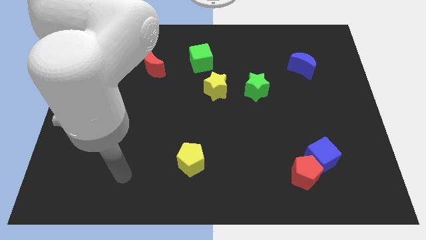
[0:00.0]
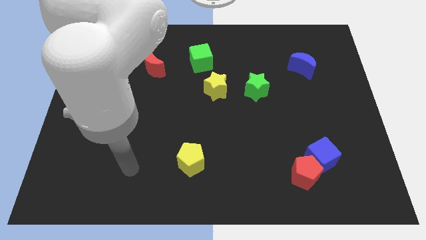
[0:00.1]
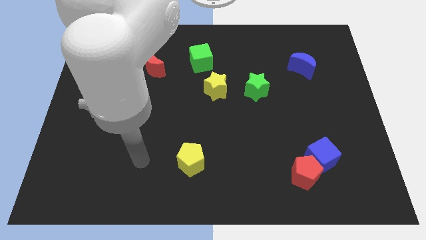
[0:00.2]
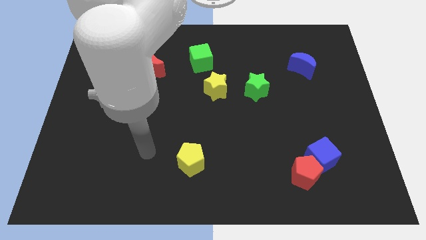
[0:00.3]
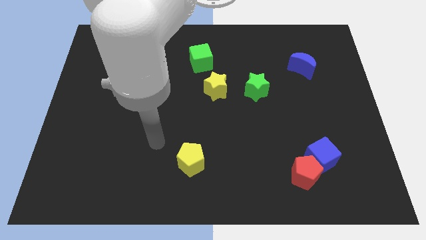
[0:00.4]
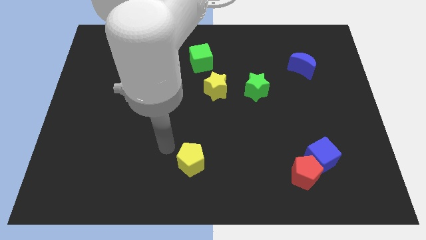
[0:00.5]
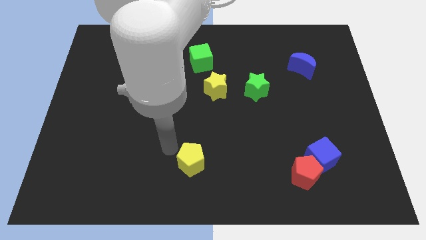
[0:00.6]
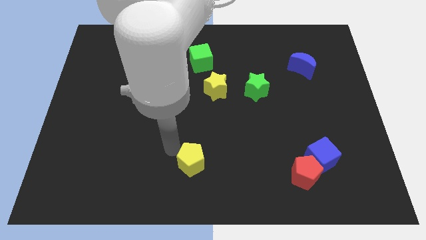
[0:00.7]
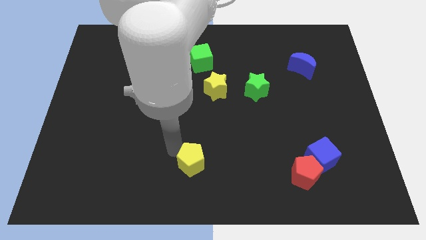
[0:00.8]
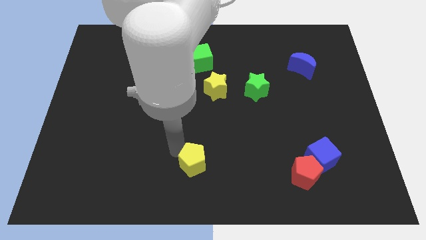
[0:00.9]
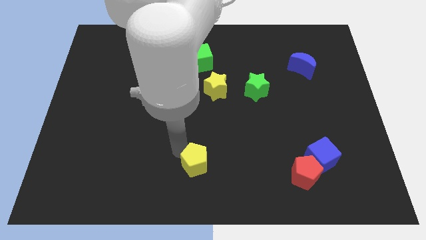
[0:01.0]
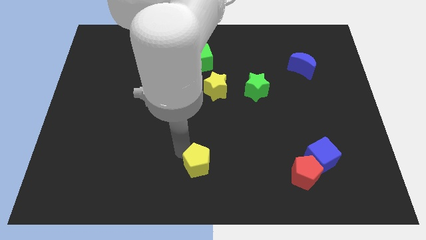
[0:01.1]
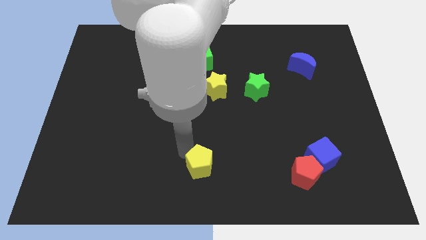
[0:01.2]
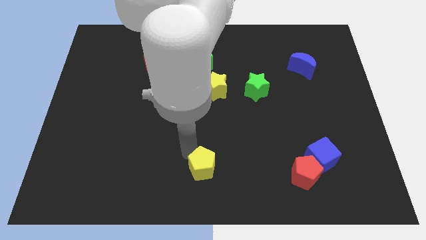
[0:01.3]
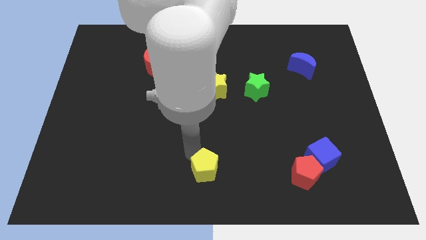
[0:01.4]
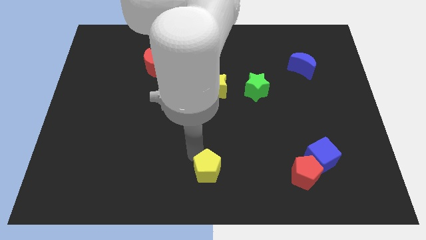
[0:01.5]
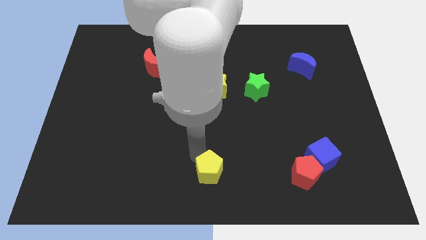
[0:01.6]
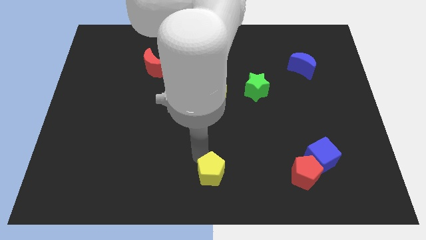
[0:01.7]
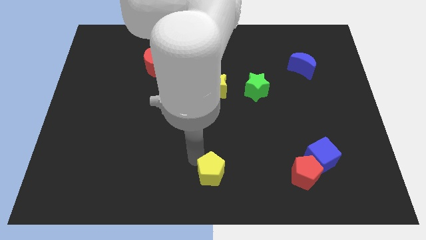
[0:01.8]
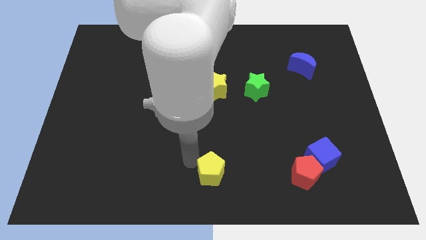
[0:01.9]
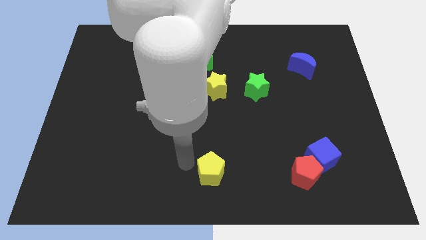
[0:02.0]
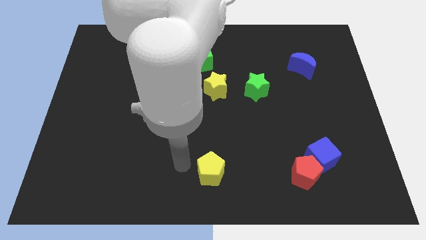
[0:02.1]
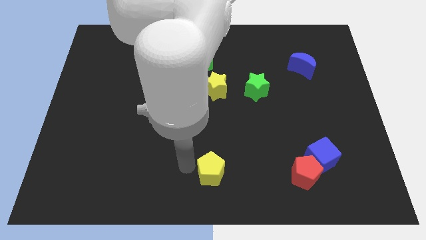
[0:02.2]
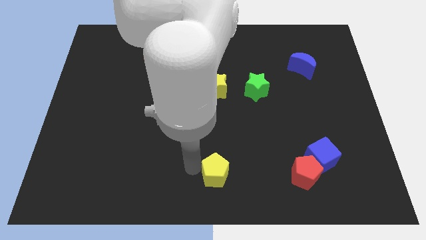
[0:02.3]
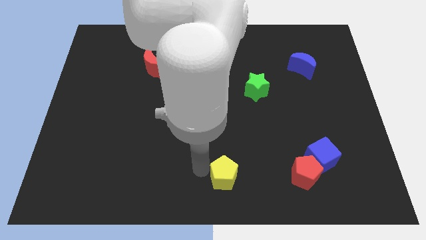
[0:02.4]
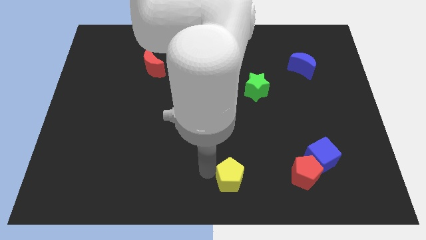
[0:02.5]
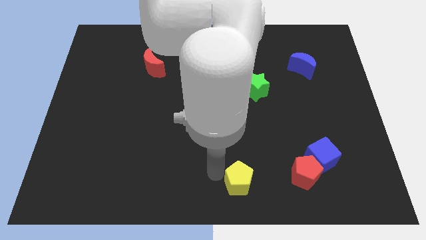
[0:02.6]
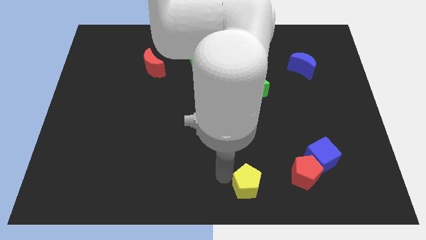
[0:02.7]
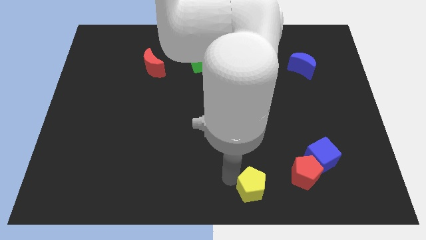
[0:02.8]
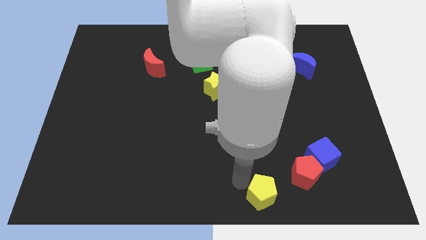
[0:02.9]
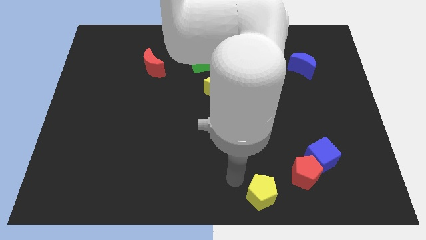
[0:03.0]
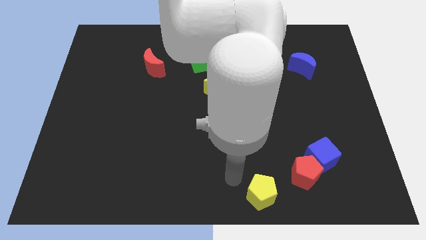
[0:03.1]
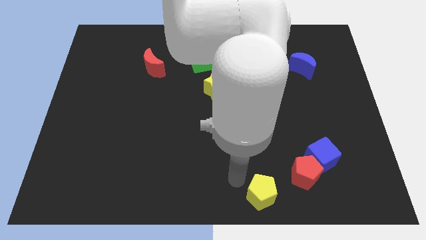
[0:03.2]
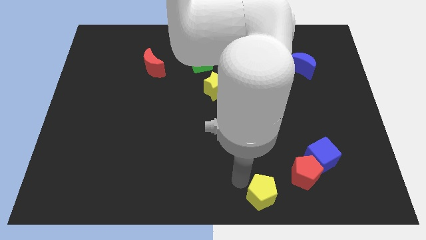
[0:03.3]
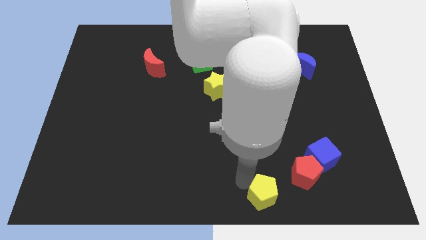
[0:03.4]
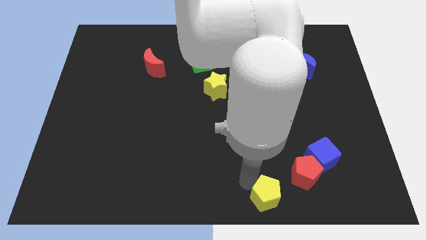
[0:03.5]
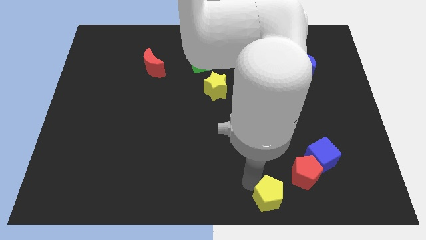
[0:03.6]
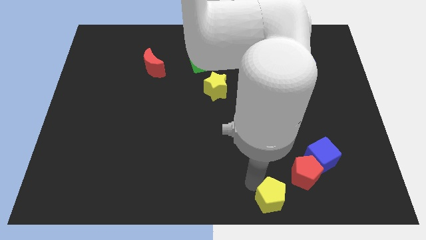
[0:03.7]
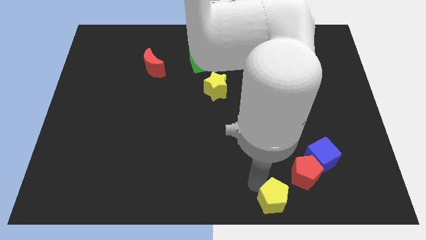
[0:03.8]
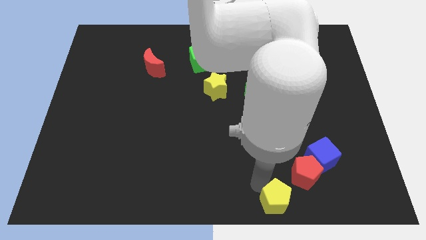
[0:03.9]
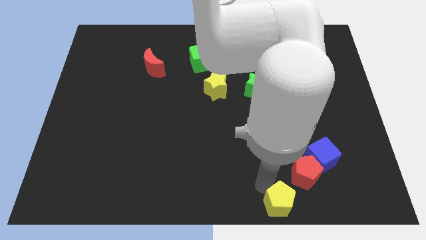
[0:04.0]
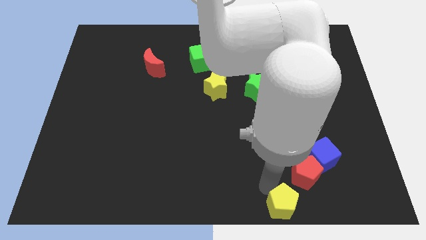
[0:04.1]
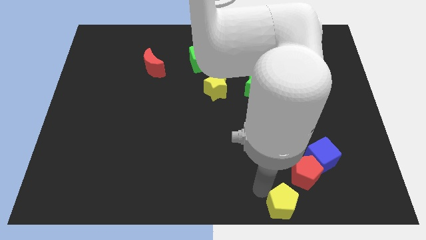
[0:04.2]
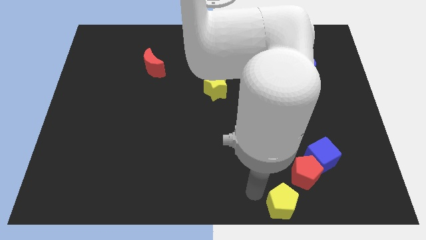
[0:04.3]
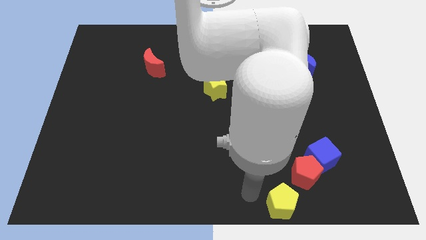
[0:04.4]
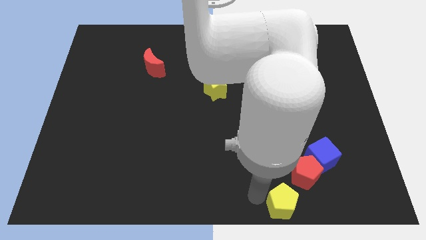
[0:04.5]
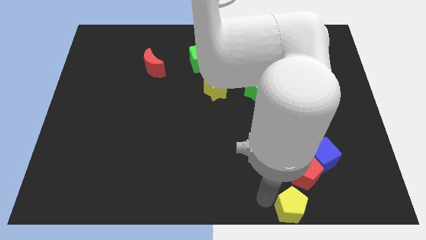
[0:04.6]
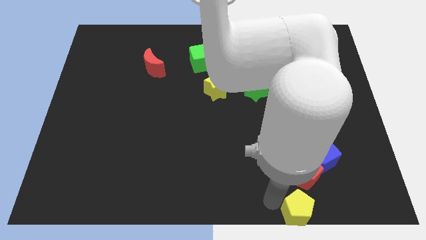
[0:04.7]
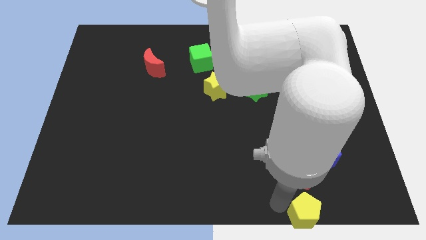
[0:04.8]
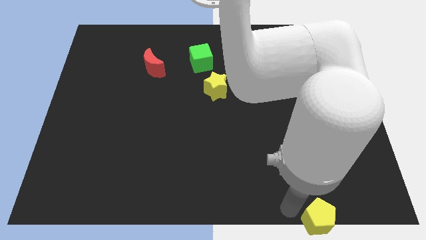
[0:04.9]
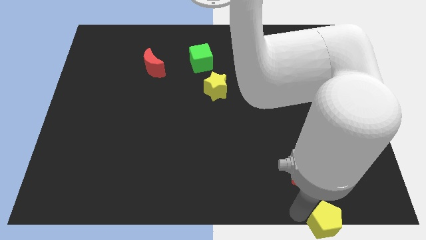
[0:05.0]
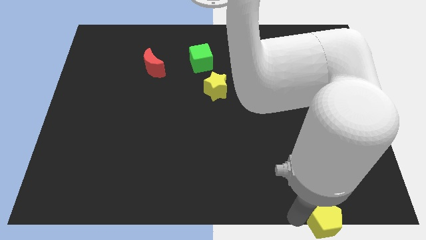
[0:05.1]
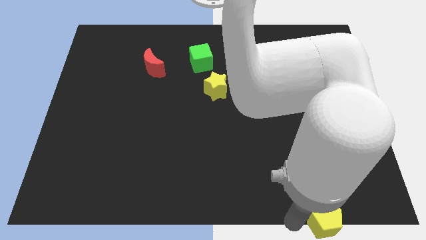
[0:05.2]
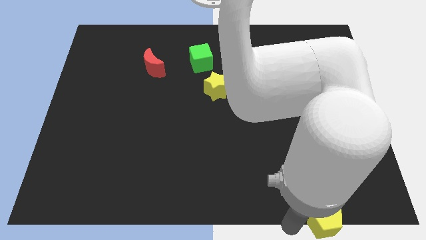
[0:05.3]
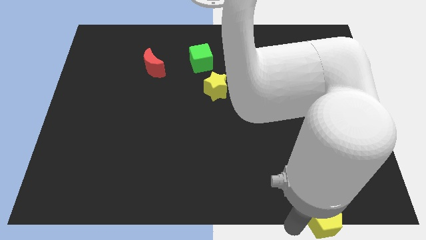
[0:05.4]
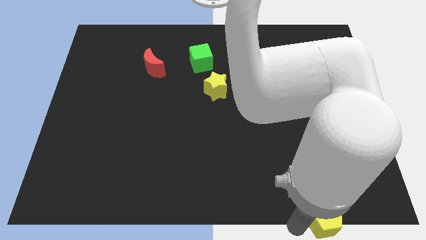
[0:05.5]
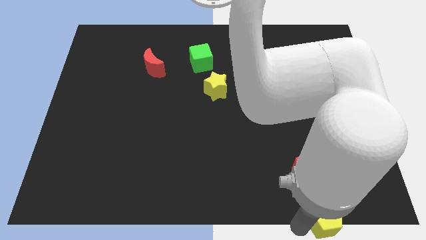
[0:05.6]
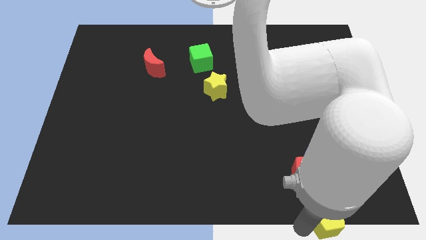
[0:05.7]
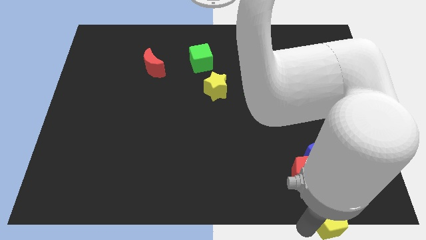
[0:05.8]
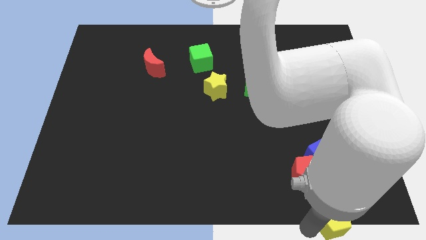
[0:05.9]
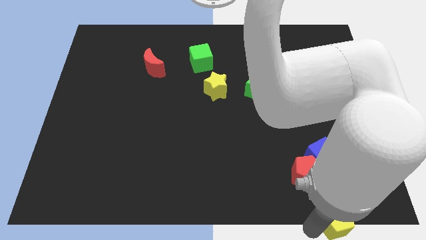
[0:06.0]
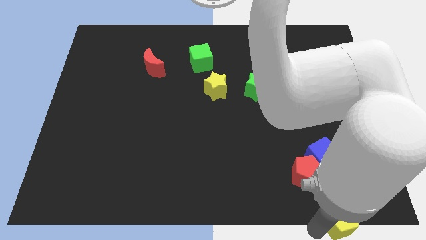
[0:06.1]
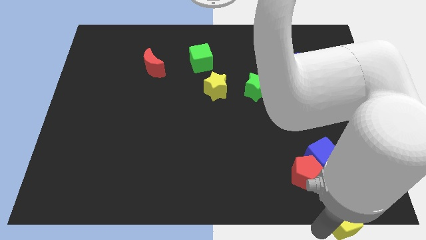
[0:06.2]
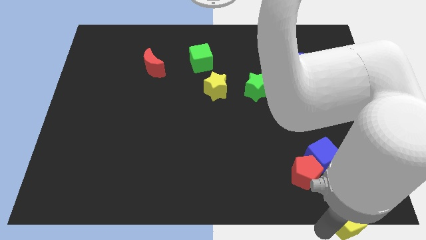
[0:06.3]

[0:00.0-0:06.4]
move the yellow pentagon to the bottom right
